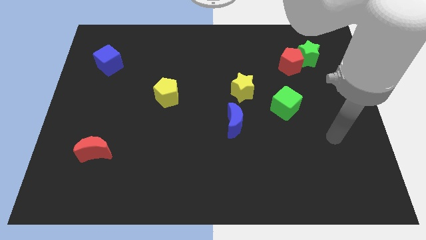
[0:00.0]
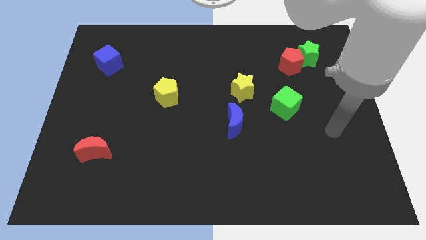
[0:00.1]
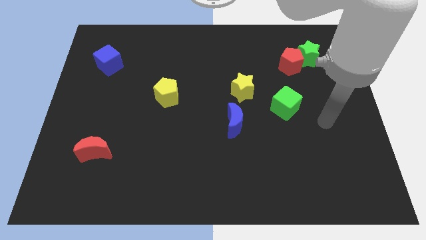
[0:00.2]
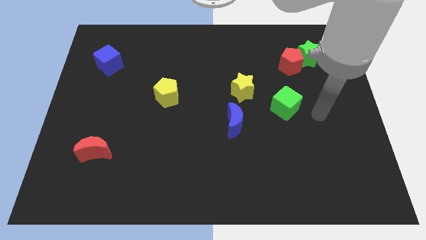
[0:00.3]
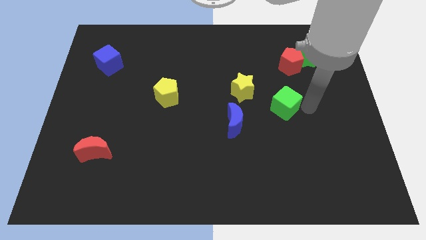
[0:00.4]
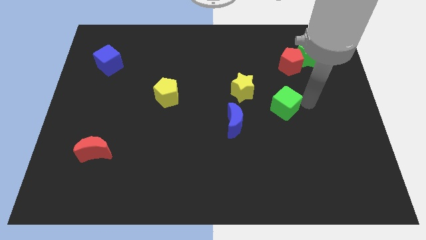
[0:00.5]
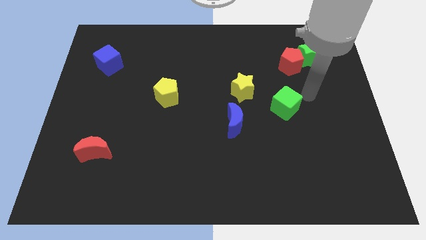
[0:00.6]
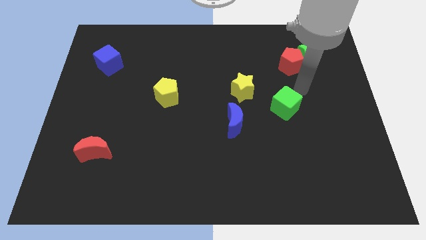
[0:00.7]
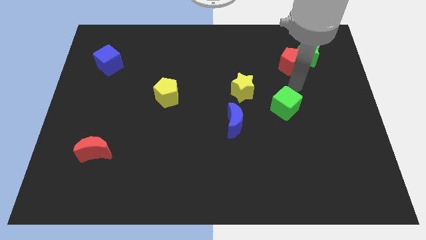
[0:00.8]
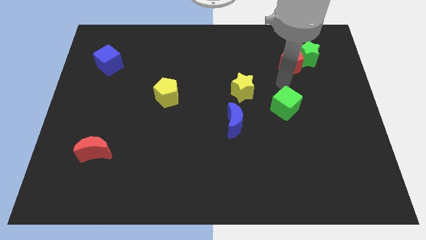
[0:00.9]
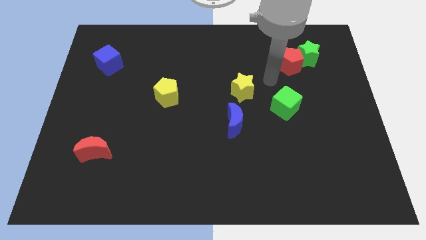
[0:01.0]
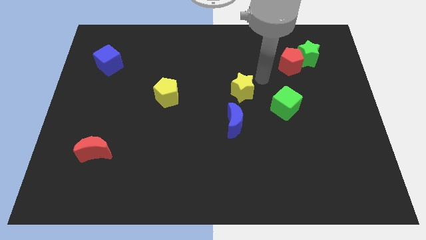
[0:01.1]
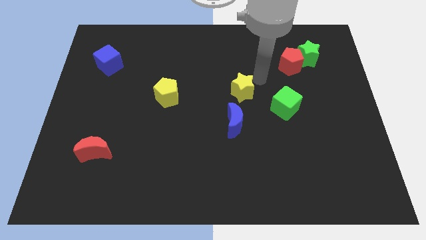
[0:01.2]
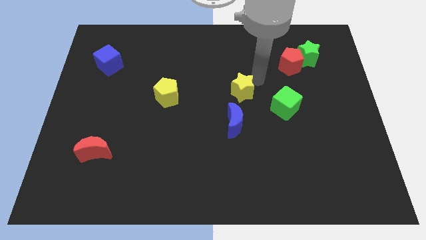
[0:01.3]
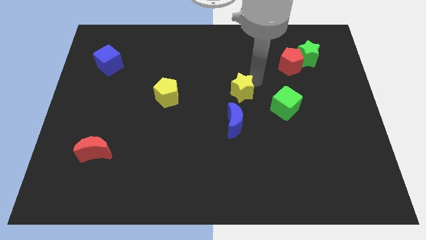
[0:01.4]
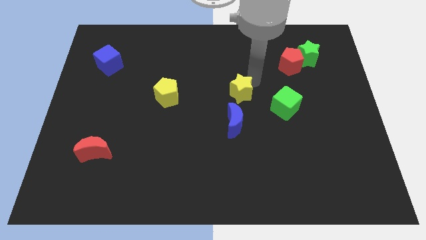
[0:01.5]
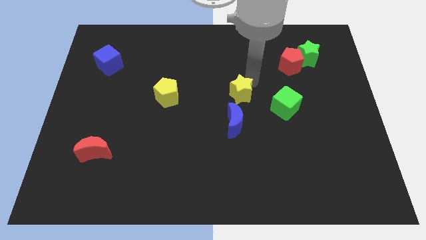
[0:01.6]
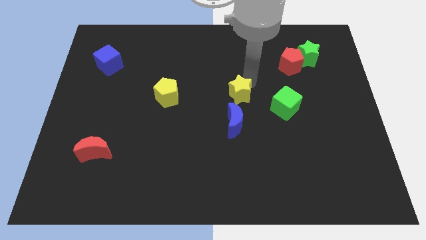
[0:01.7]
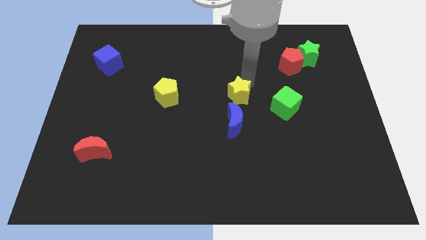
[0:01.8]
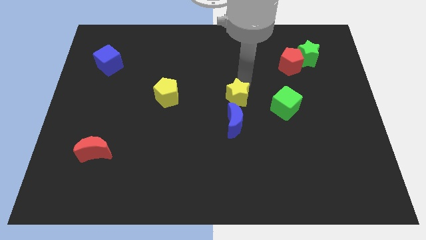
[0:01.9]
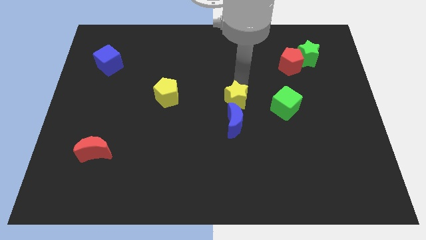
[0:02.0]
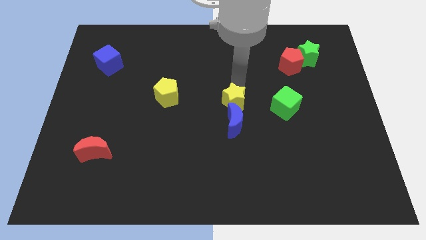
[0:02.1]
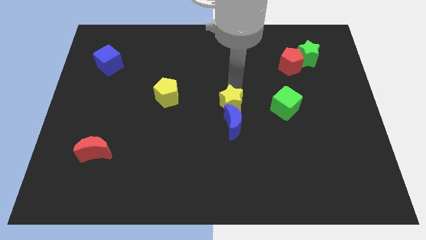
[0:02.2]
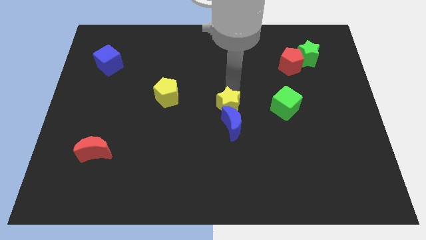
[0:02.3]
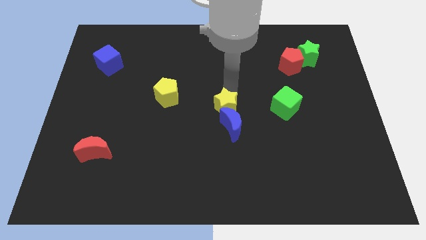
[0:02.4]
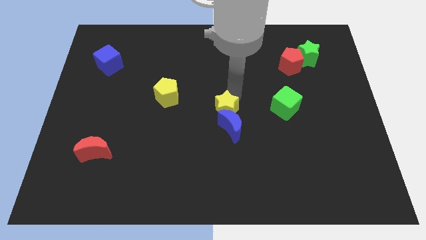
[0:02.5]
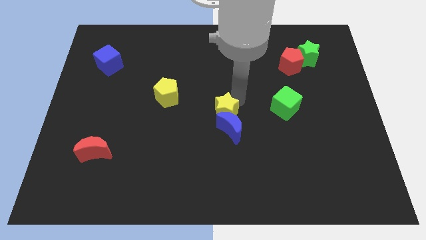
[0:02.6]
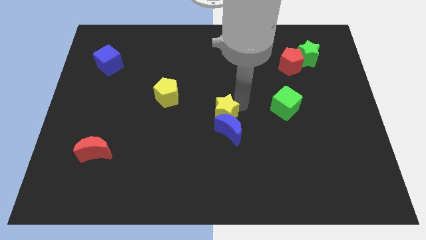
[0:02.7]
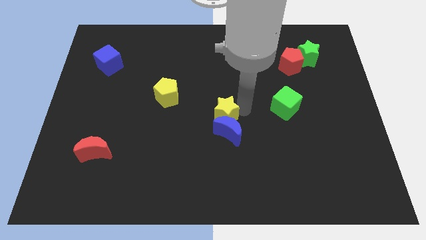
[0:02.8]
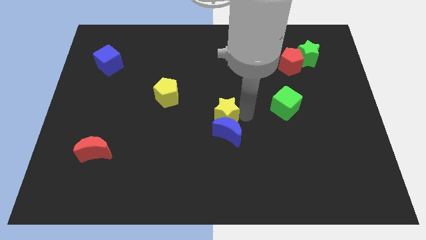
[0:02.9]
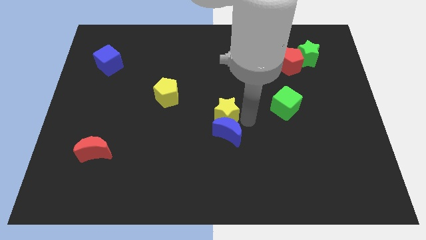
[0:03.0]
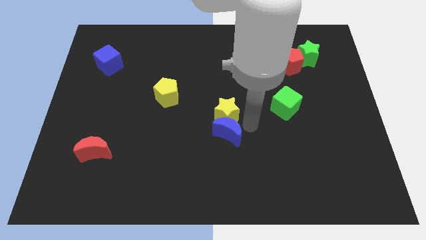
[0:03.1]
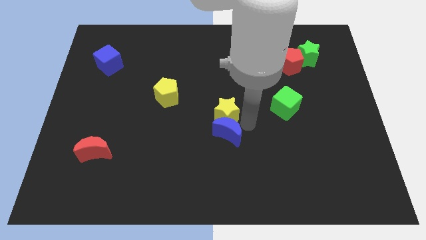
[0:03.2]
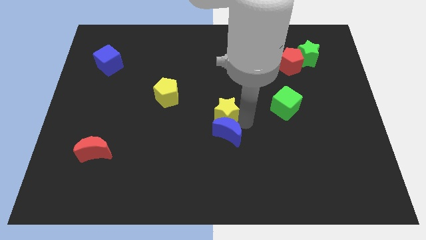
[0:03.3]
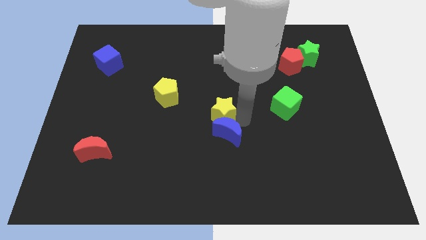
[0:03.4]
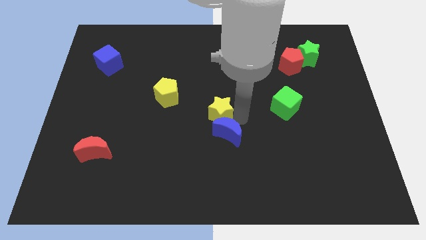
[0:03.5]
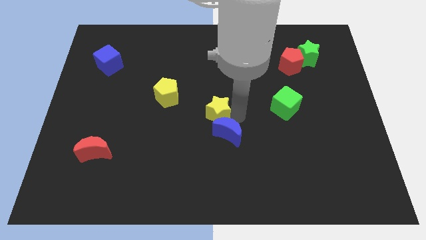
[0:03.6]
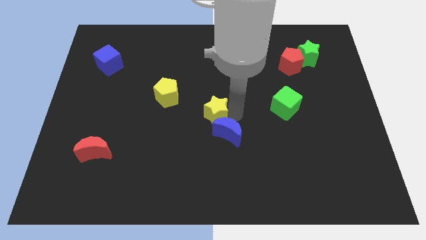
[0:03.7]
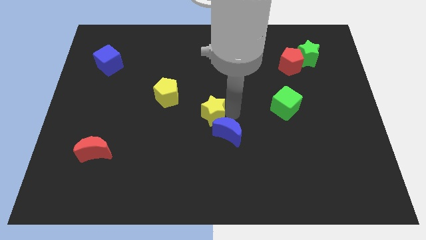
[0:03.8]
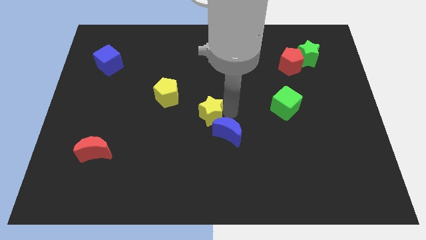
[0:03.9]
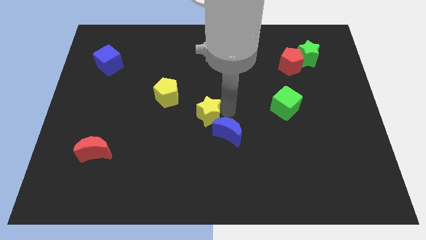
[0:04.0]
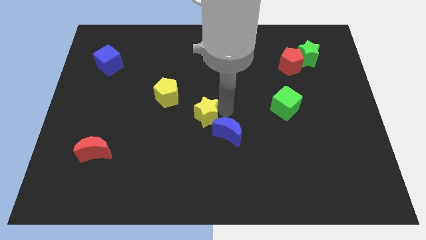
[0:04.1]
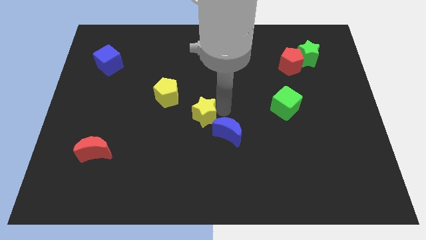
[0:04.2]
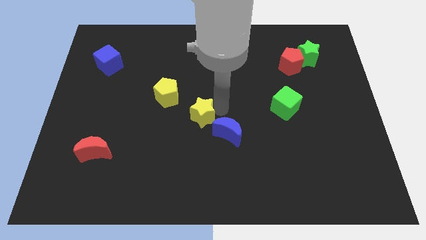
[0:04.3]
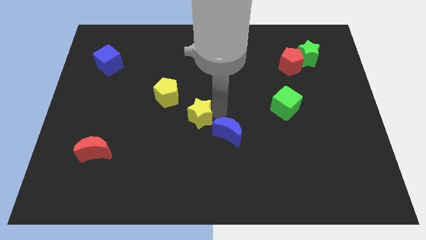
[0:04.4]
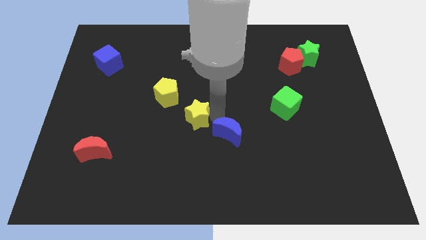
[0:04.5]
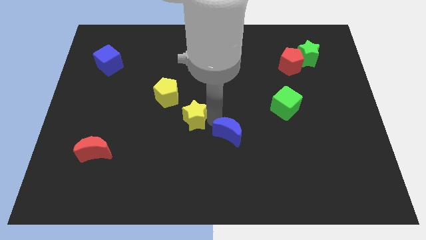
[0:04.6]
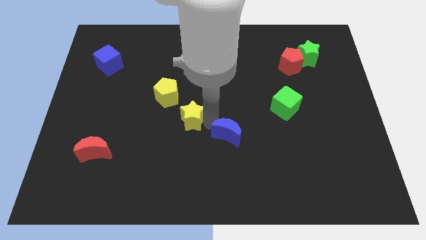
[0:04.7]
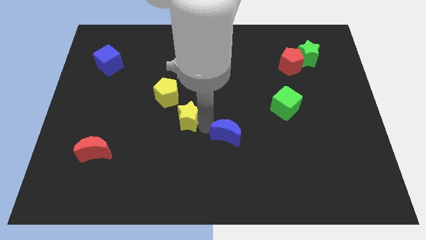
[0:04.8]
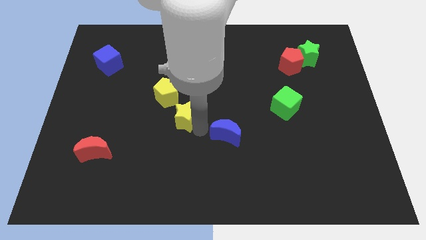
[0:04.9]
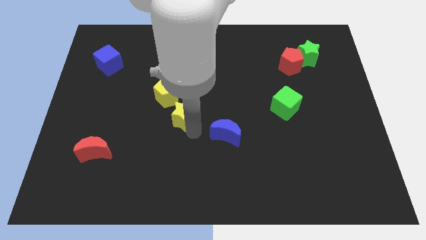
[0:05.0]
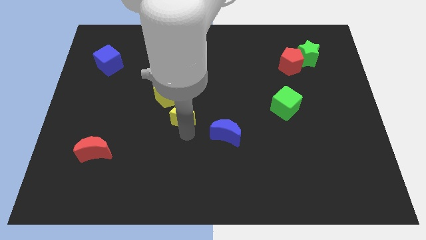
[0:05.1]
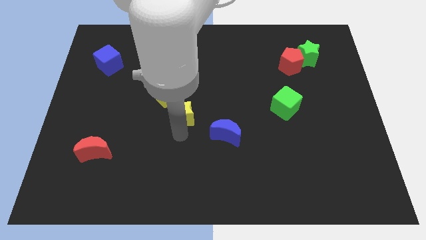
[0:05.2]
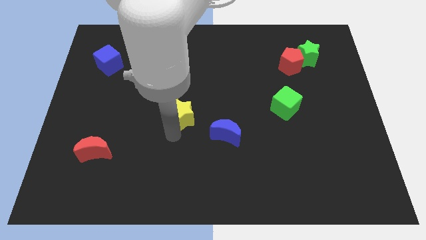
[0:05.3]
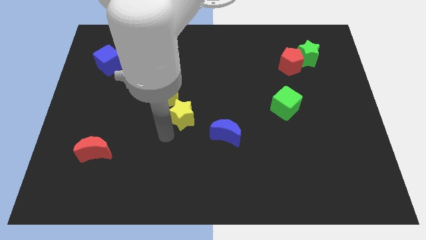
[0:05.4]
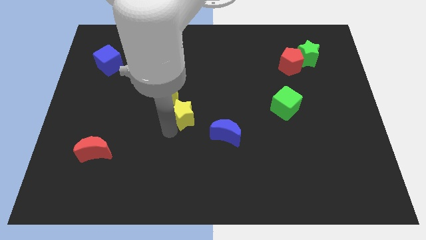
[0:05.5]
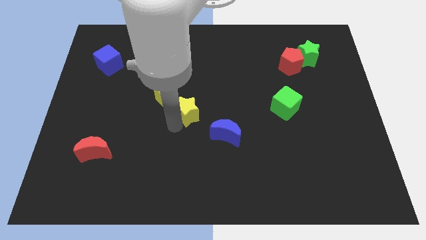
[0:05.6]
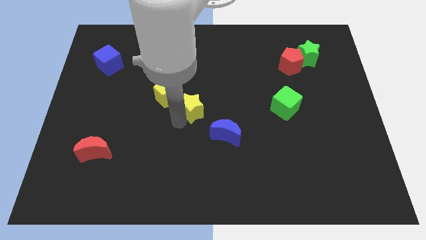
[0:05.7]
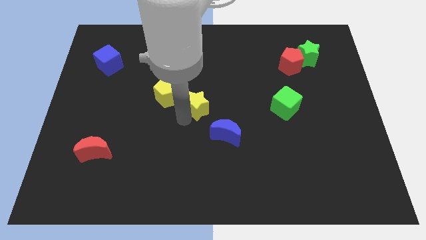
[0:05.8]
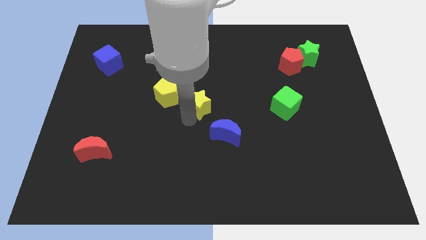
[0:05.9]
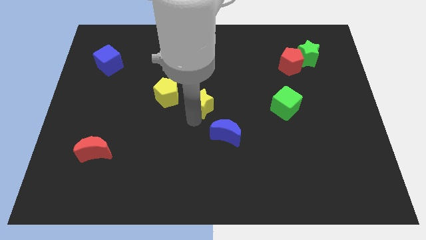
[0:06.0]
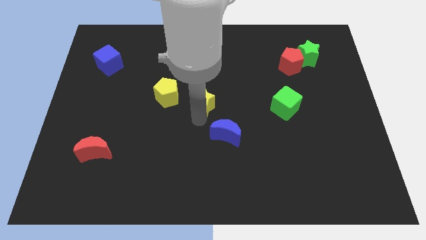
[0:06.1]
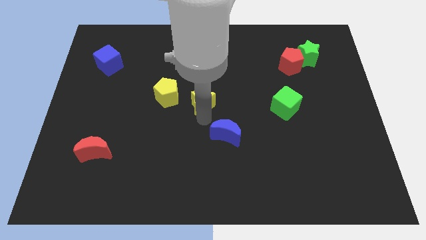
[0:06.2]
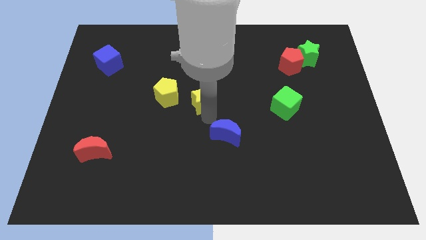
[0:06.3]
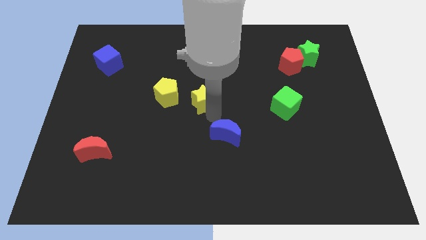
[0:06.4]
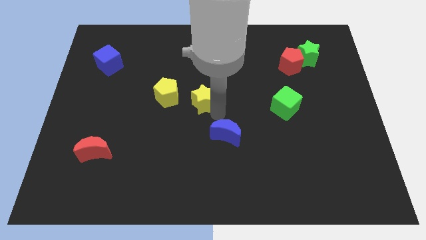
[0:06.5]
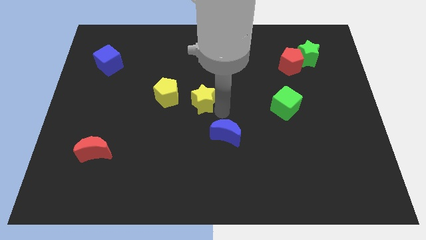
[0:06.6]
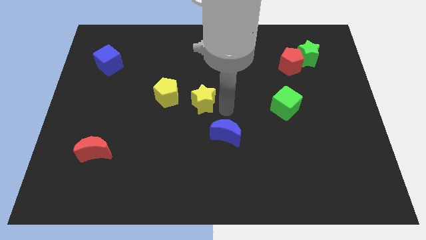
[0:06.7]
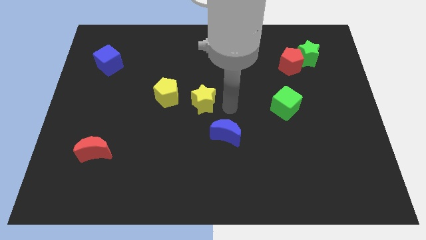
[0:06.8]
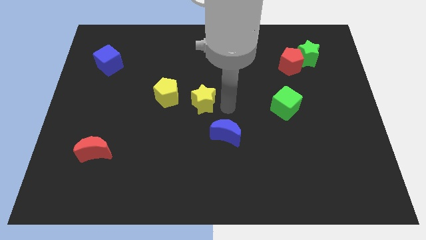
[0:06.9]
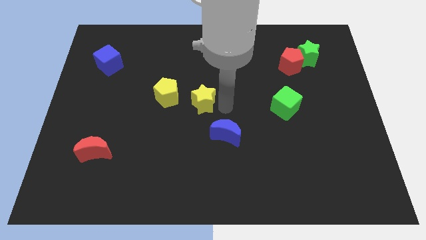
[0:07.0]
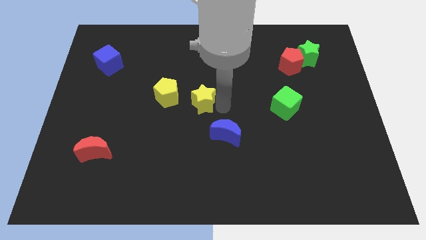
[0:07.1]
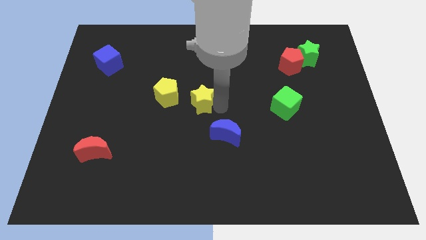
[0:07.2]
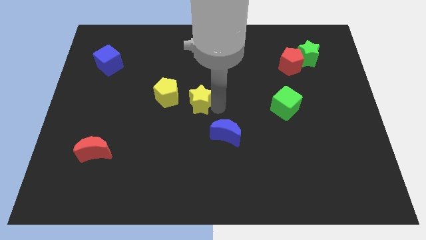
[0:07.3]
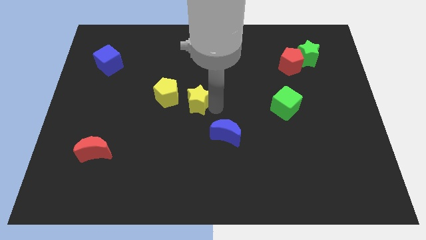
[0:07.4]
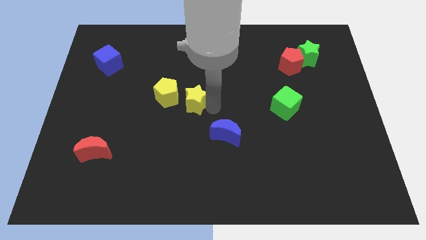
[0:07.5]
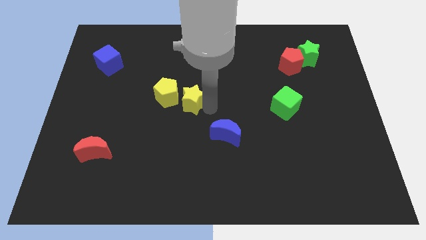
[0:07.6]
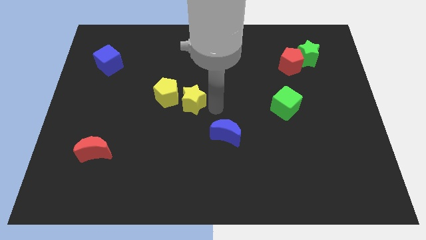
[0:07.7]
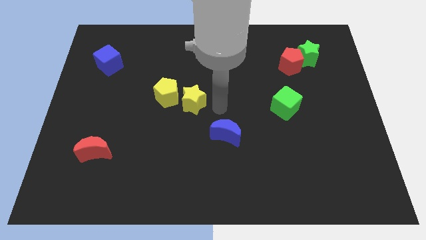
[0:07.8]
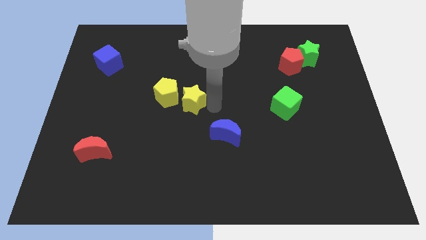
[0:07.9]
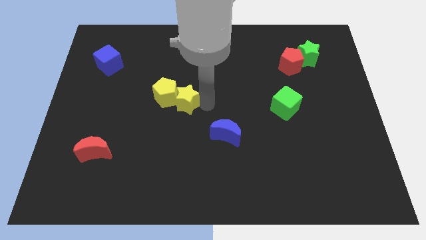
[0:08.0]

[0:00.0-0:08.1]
put the yellow star towards the yellow pentagon
